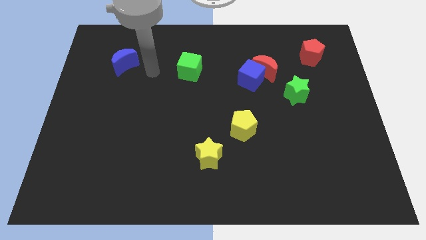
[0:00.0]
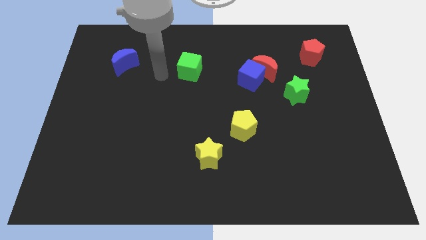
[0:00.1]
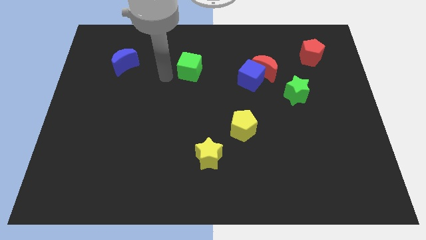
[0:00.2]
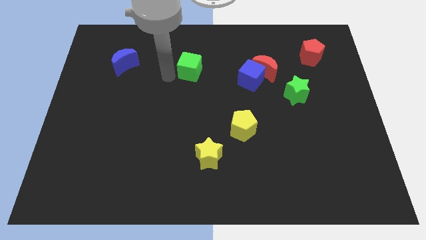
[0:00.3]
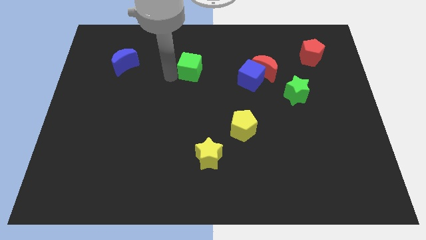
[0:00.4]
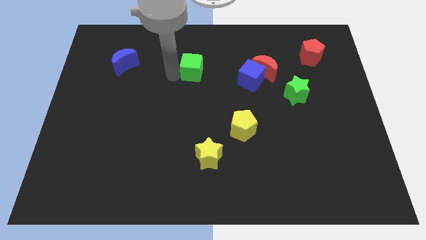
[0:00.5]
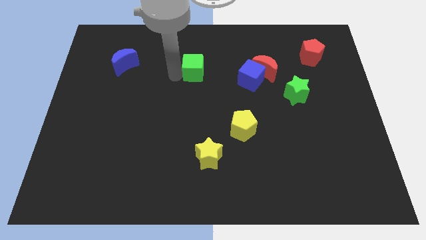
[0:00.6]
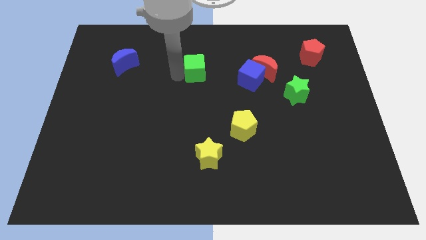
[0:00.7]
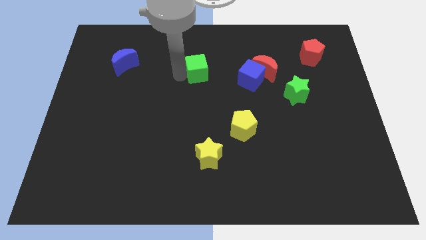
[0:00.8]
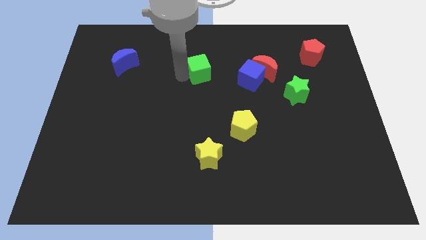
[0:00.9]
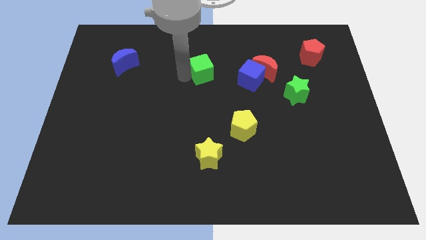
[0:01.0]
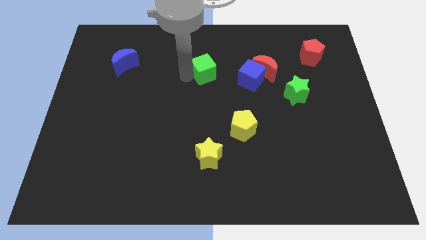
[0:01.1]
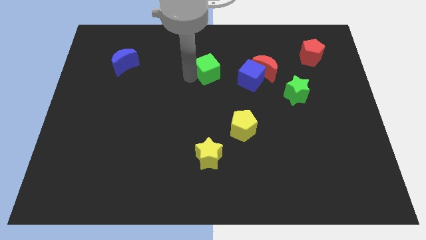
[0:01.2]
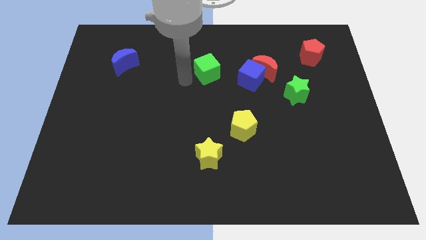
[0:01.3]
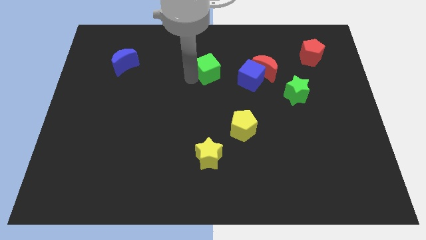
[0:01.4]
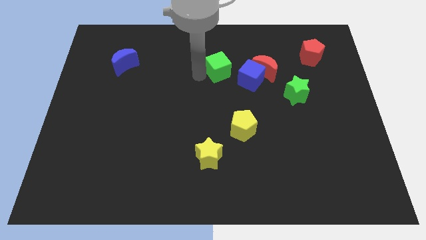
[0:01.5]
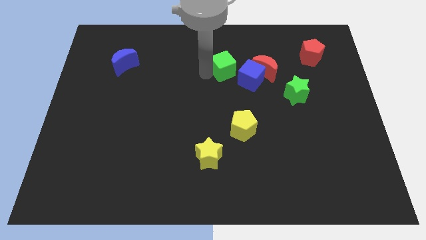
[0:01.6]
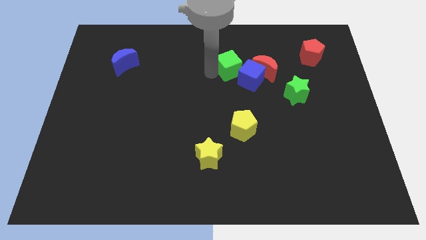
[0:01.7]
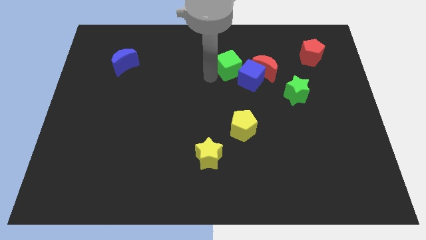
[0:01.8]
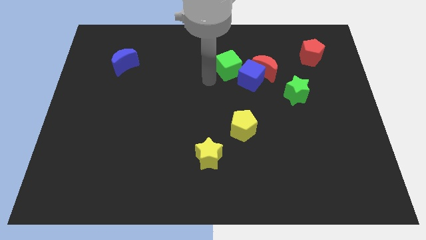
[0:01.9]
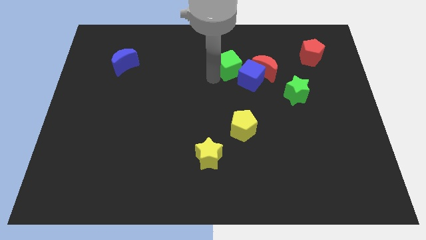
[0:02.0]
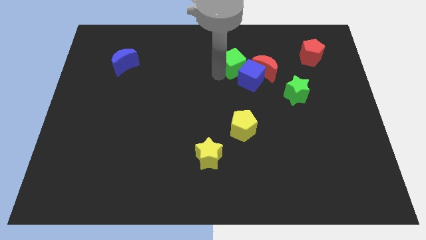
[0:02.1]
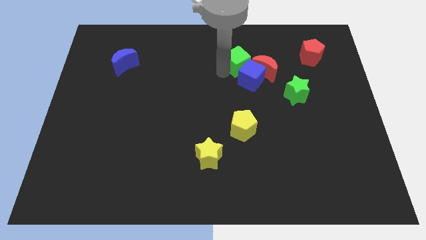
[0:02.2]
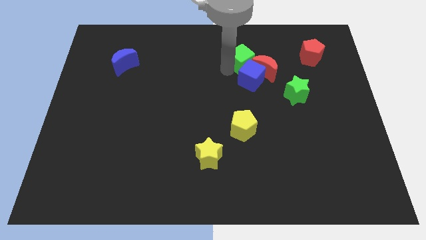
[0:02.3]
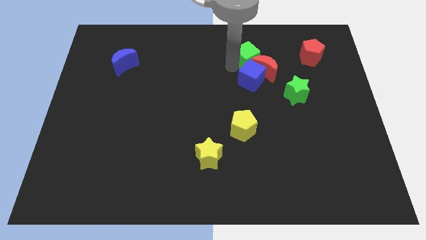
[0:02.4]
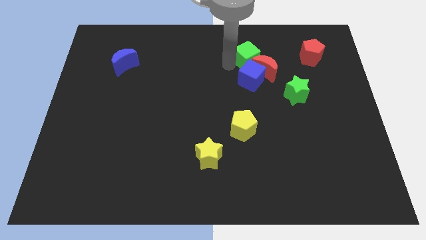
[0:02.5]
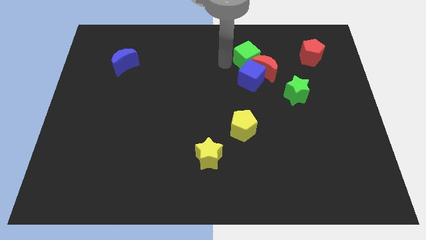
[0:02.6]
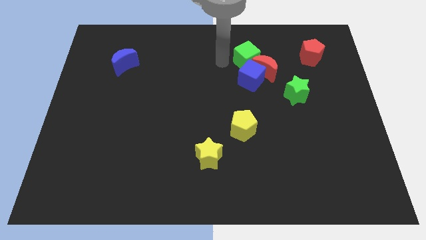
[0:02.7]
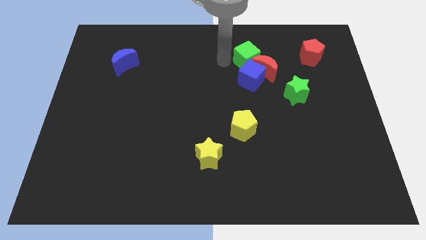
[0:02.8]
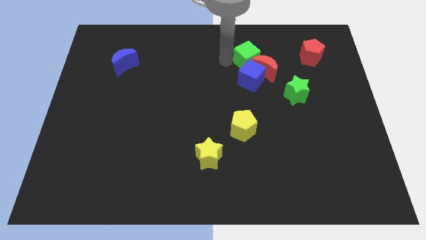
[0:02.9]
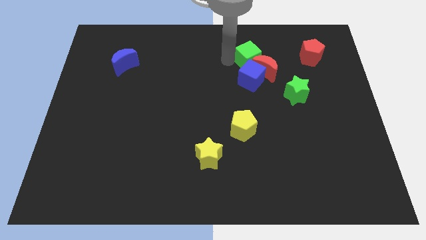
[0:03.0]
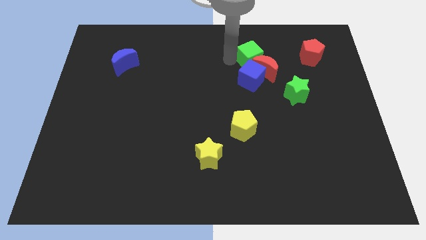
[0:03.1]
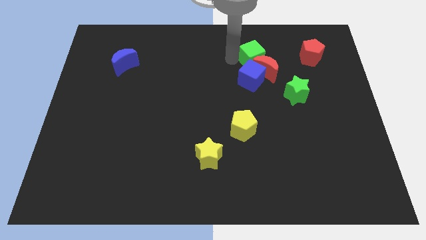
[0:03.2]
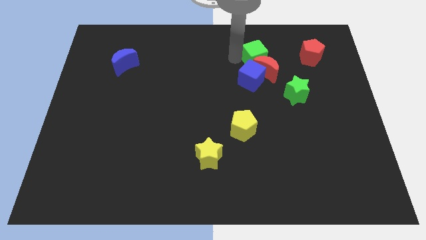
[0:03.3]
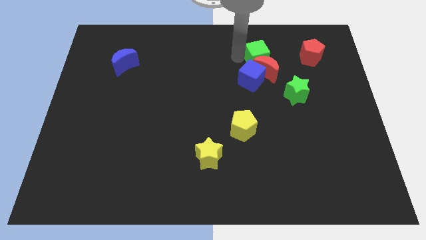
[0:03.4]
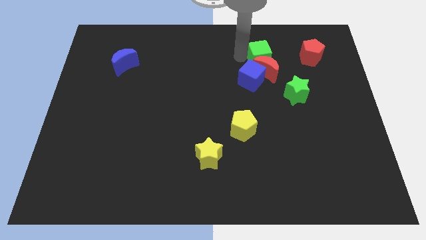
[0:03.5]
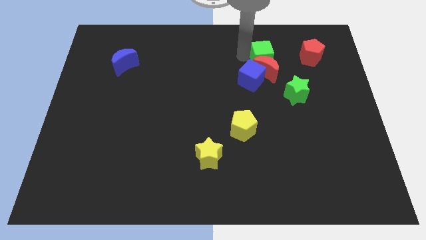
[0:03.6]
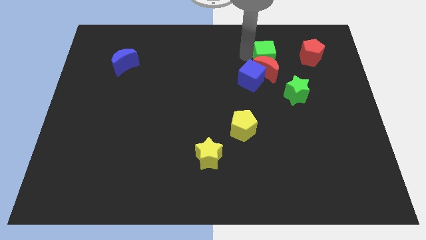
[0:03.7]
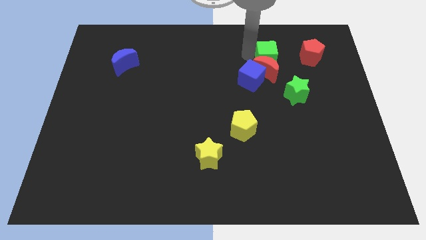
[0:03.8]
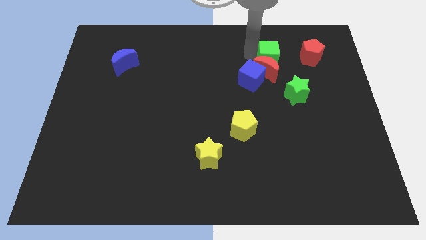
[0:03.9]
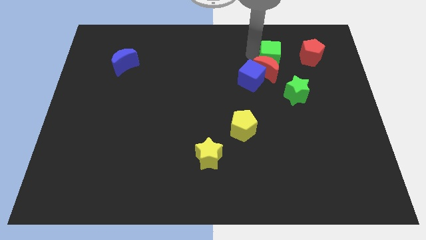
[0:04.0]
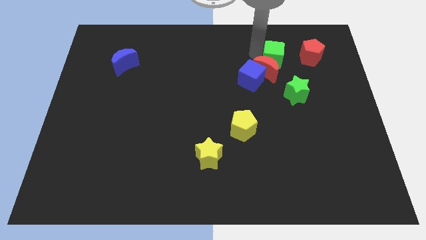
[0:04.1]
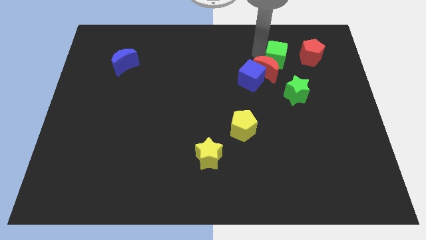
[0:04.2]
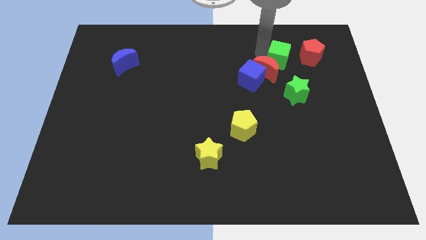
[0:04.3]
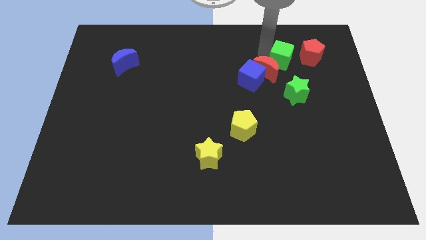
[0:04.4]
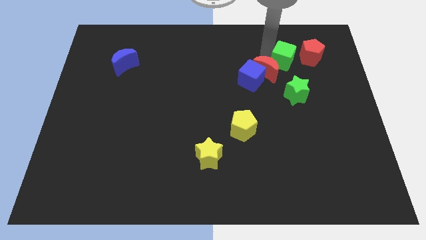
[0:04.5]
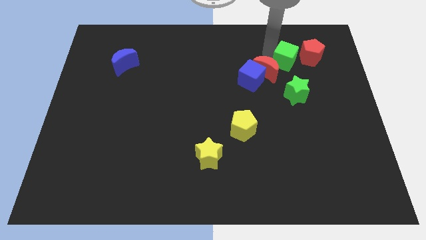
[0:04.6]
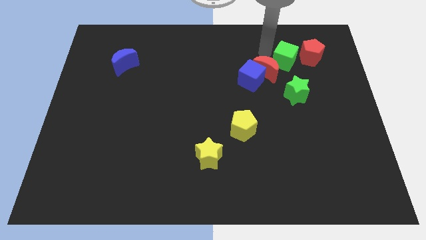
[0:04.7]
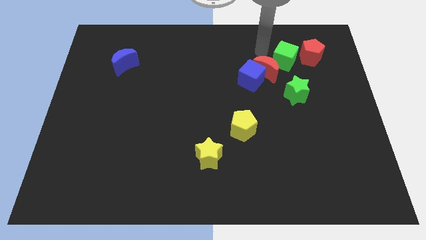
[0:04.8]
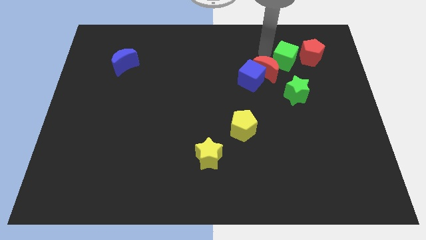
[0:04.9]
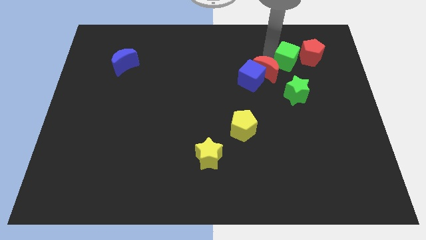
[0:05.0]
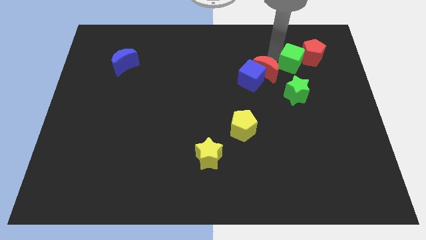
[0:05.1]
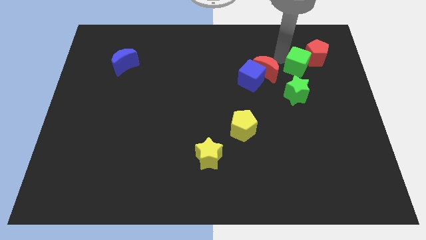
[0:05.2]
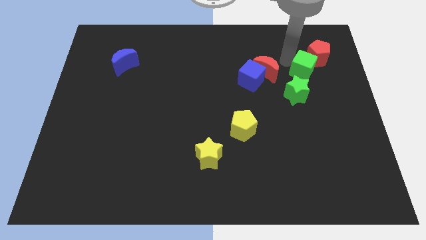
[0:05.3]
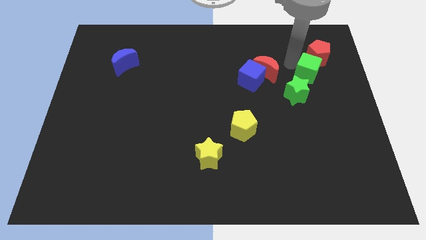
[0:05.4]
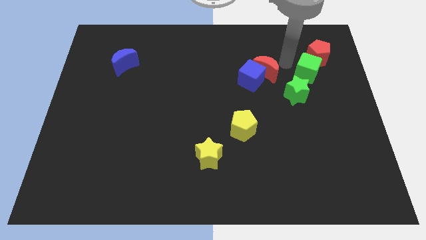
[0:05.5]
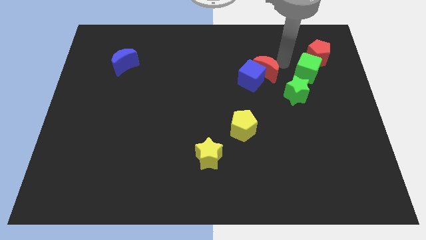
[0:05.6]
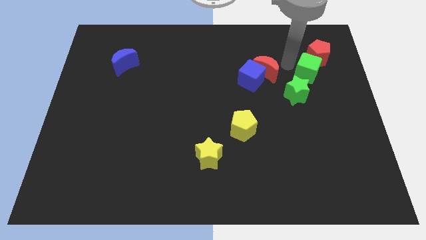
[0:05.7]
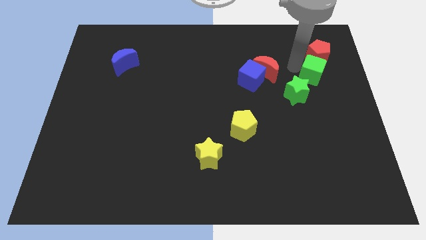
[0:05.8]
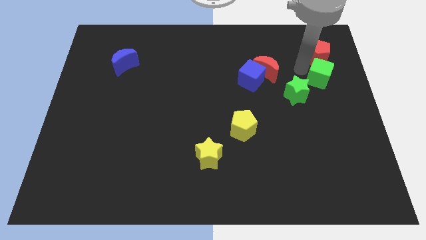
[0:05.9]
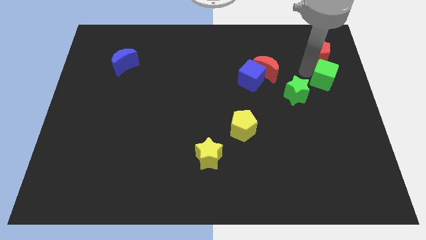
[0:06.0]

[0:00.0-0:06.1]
slide the green cube to the center right
